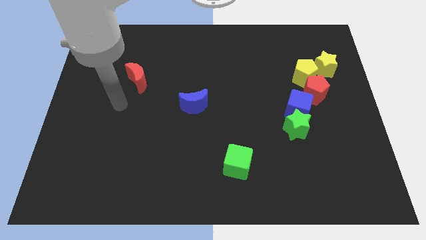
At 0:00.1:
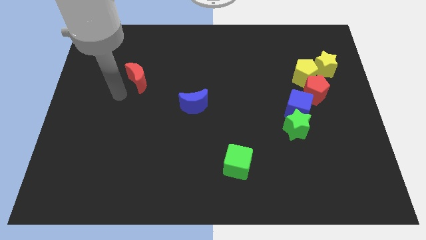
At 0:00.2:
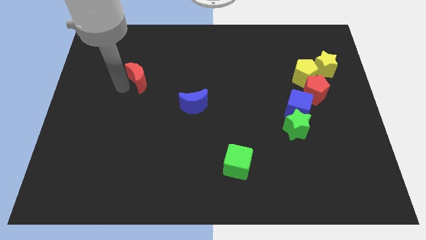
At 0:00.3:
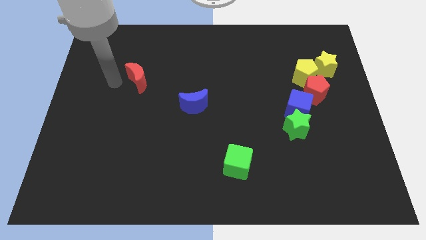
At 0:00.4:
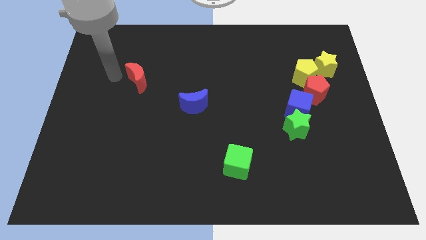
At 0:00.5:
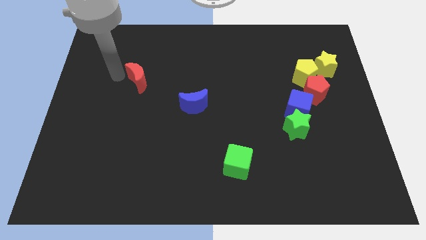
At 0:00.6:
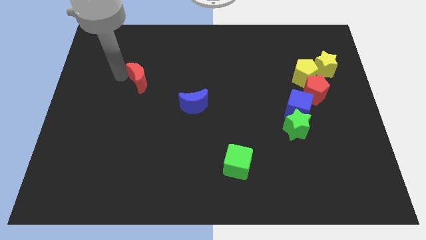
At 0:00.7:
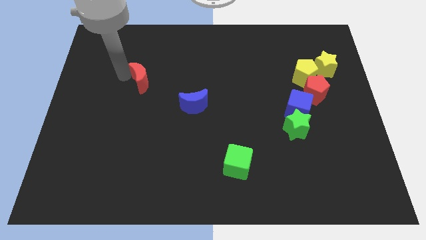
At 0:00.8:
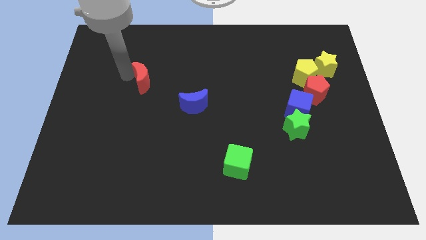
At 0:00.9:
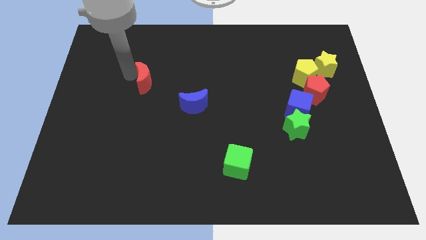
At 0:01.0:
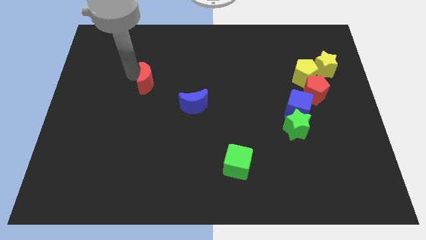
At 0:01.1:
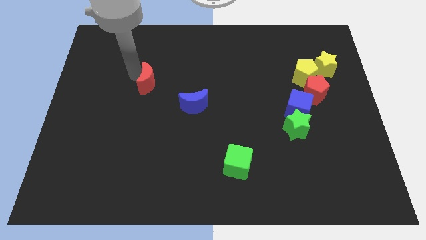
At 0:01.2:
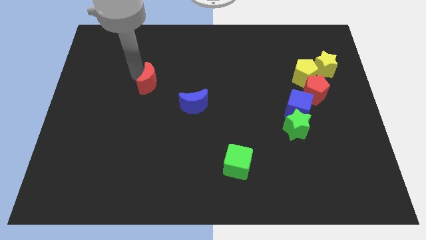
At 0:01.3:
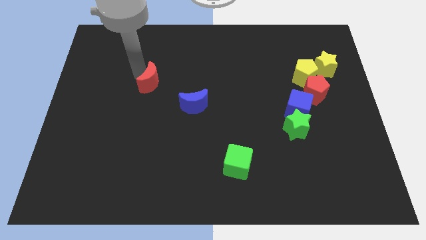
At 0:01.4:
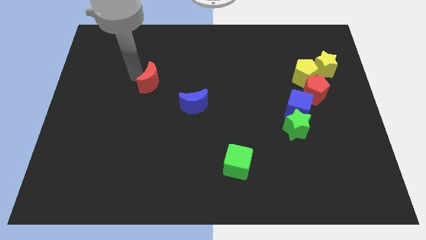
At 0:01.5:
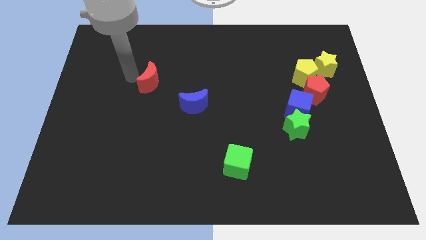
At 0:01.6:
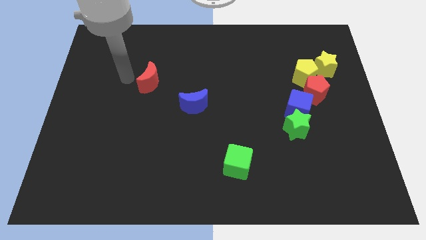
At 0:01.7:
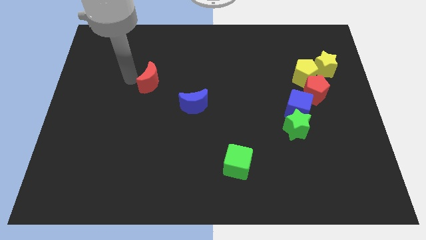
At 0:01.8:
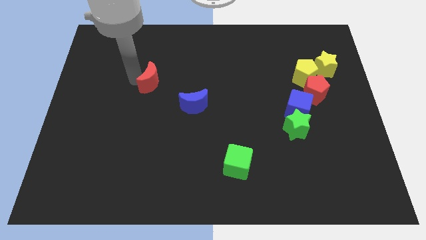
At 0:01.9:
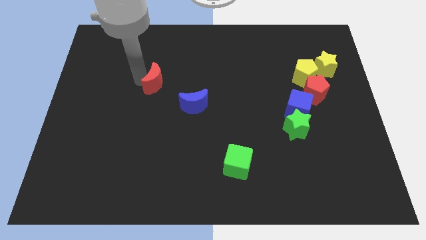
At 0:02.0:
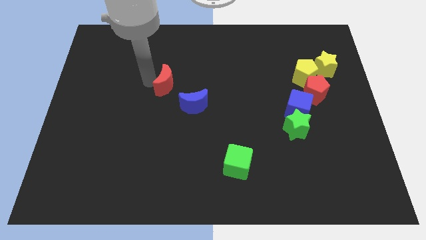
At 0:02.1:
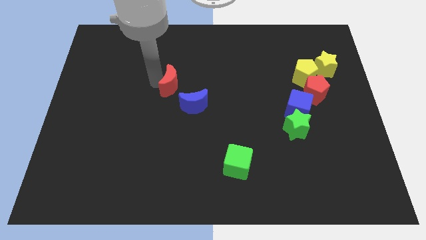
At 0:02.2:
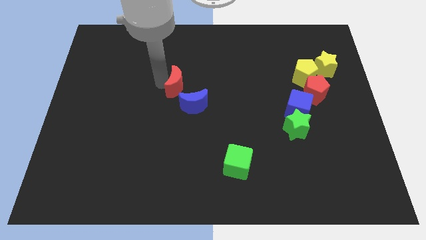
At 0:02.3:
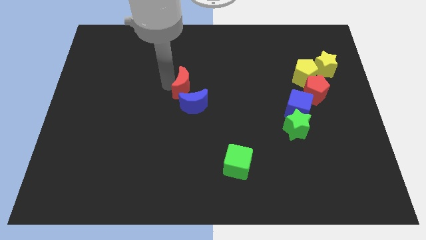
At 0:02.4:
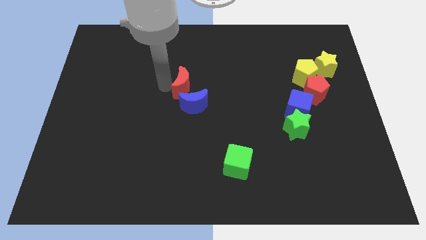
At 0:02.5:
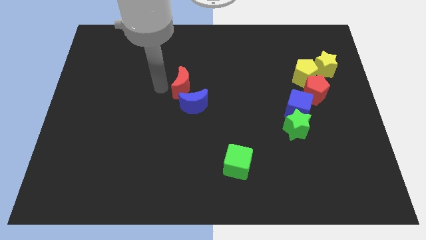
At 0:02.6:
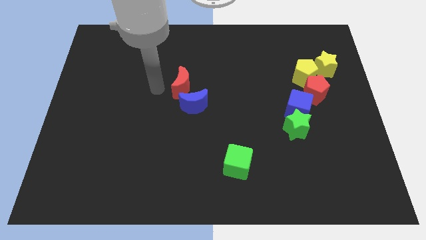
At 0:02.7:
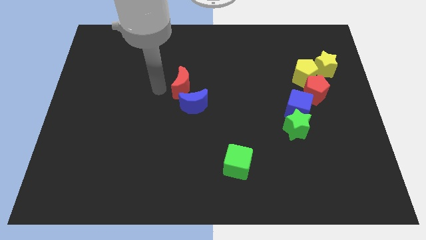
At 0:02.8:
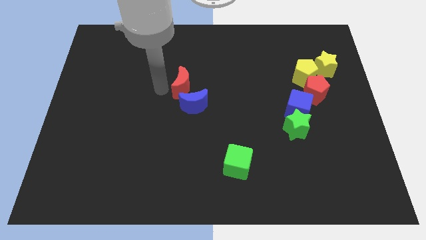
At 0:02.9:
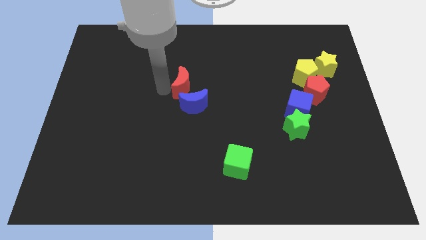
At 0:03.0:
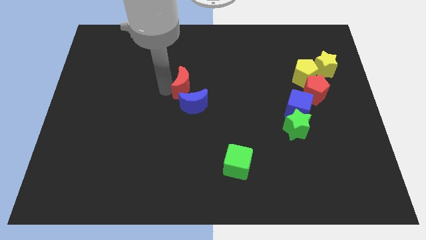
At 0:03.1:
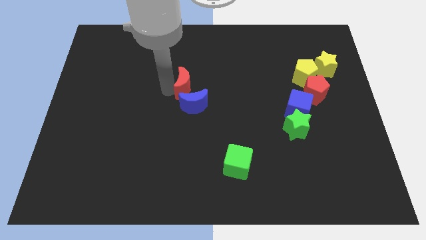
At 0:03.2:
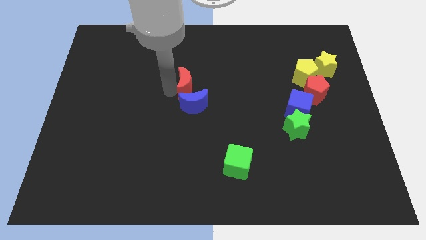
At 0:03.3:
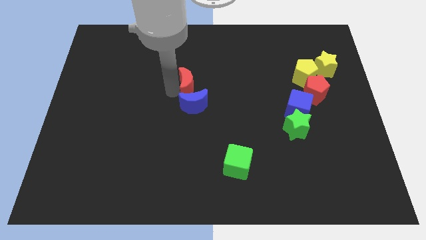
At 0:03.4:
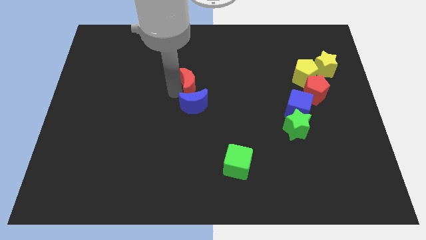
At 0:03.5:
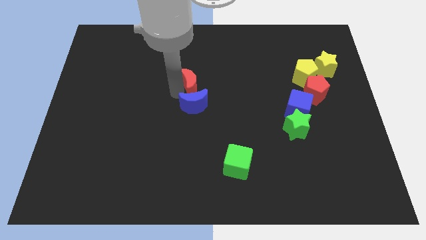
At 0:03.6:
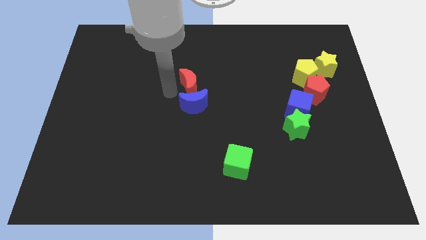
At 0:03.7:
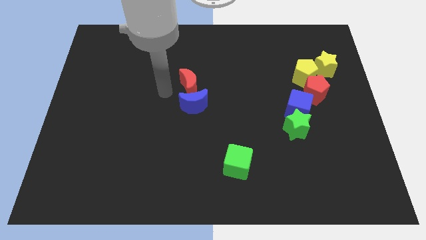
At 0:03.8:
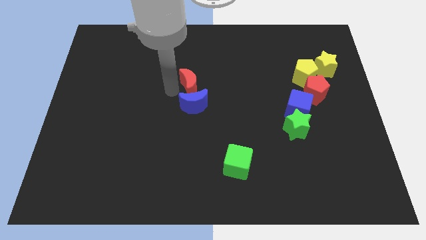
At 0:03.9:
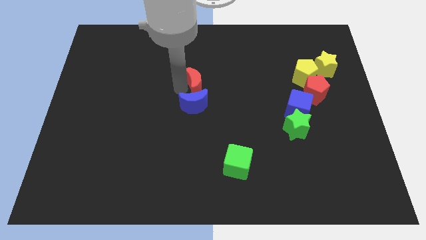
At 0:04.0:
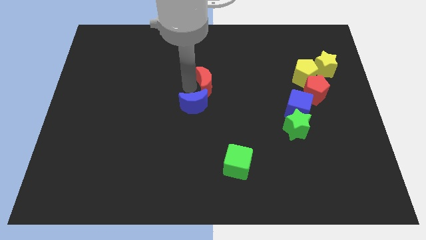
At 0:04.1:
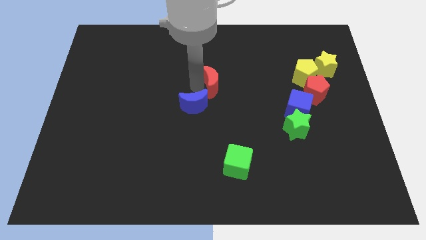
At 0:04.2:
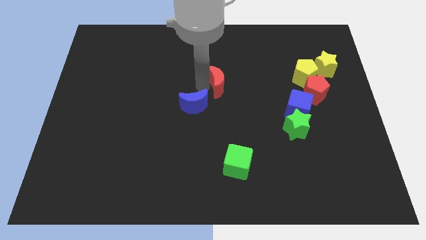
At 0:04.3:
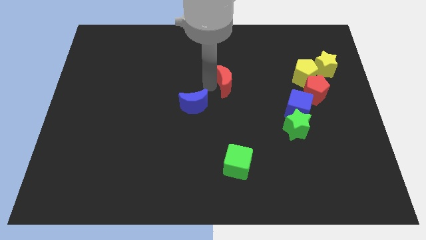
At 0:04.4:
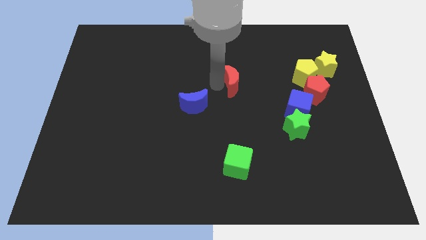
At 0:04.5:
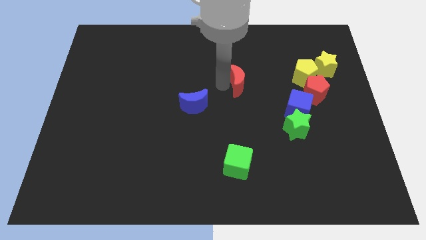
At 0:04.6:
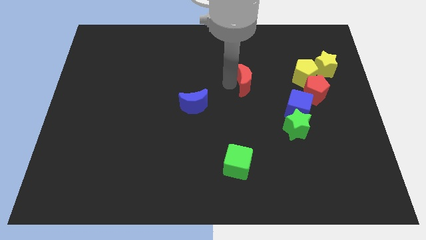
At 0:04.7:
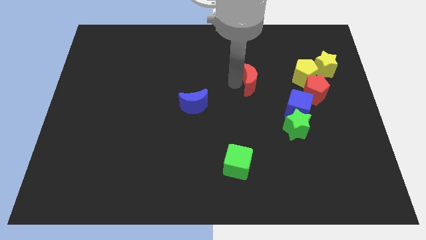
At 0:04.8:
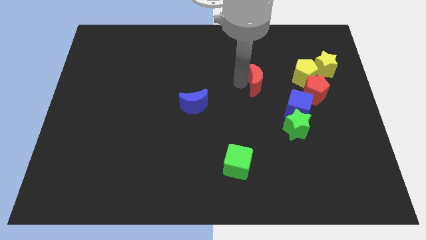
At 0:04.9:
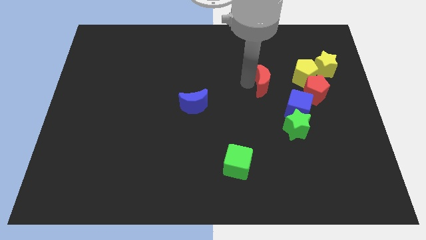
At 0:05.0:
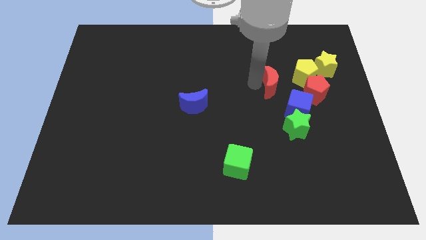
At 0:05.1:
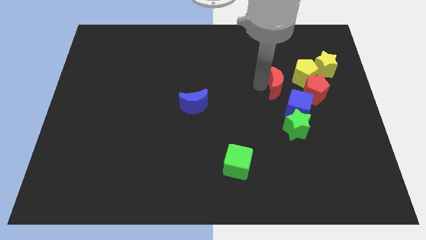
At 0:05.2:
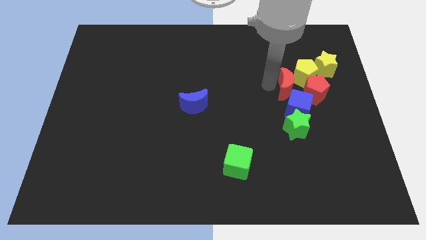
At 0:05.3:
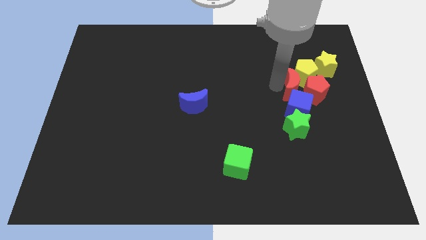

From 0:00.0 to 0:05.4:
slide the red moon towards the red pentagon

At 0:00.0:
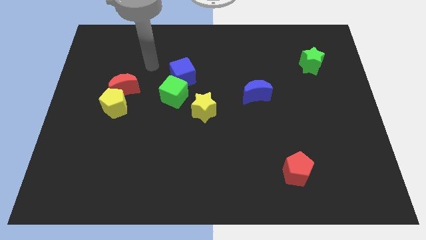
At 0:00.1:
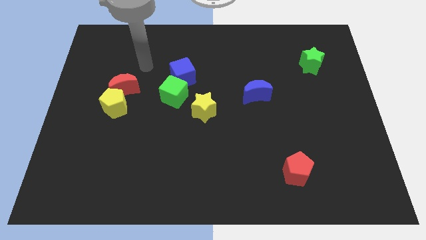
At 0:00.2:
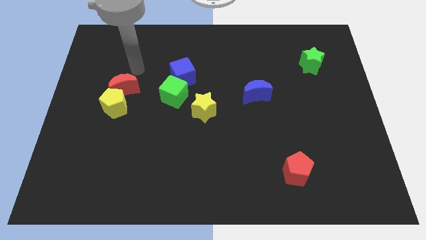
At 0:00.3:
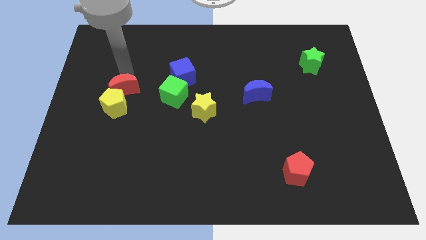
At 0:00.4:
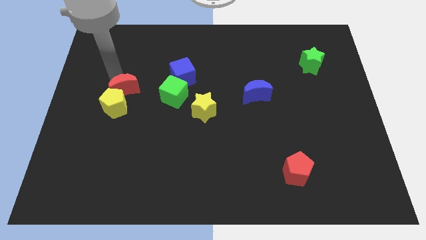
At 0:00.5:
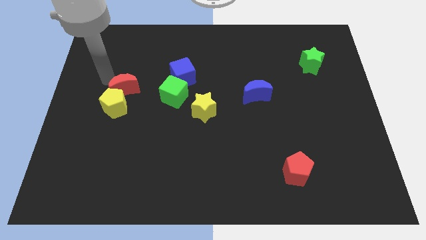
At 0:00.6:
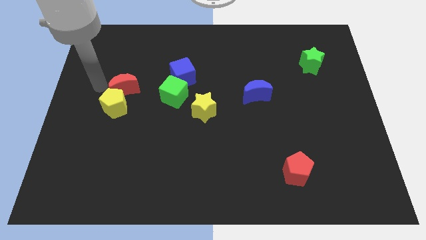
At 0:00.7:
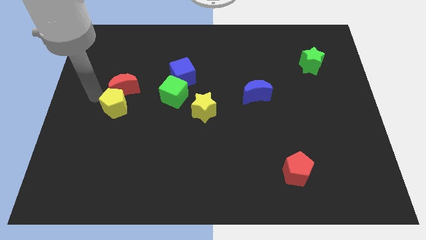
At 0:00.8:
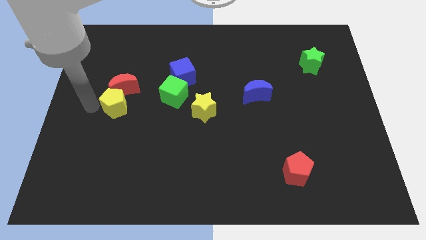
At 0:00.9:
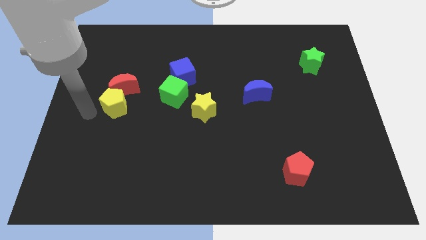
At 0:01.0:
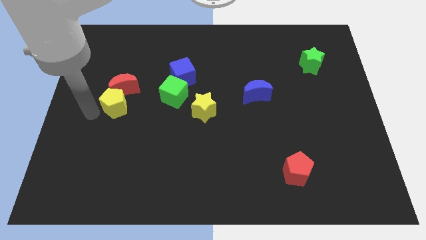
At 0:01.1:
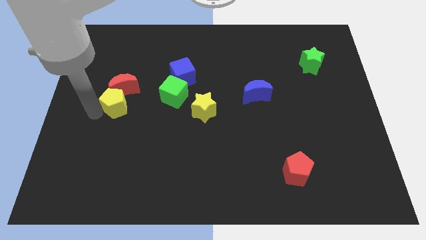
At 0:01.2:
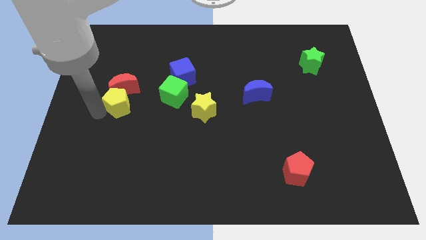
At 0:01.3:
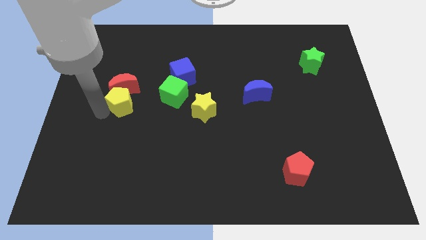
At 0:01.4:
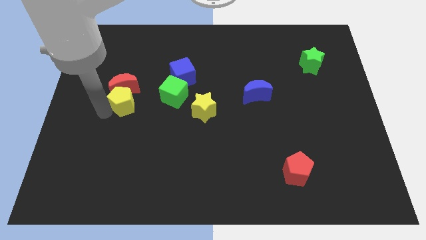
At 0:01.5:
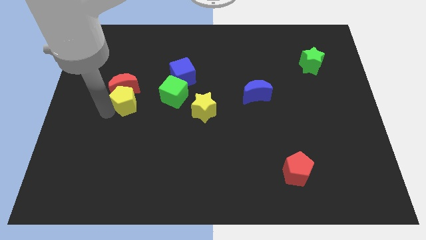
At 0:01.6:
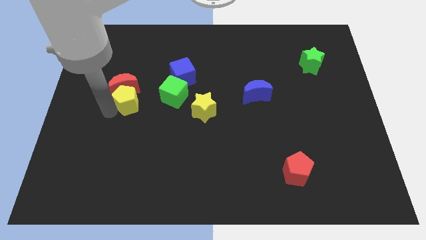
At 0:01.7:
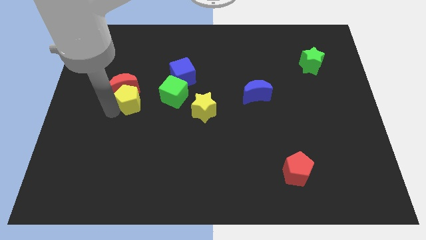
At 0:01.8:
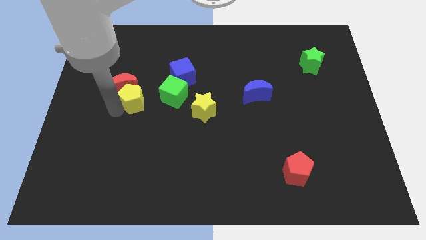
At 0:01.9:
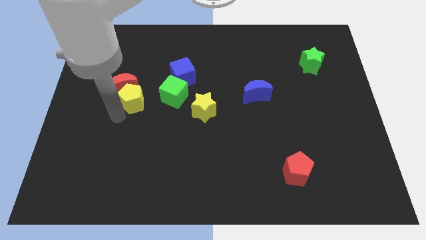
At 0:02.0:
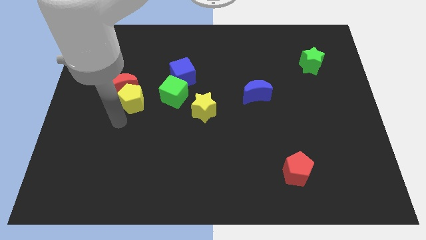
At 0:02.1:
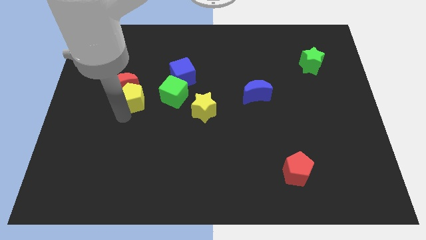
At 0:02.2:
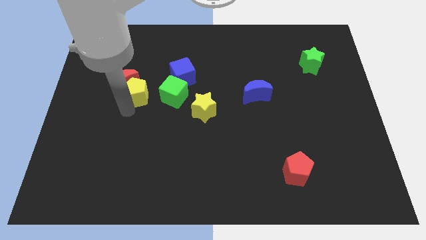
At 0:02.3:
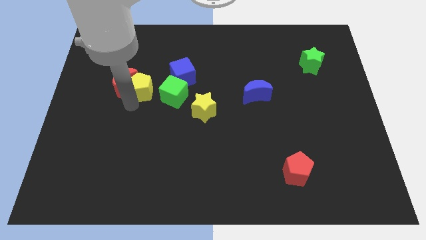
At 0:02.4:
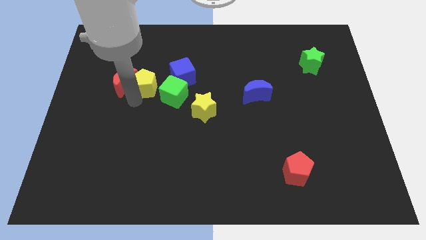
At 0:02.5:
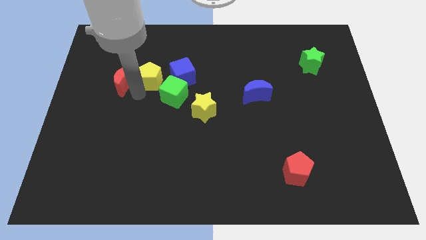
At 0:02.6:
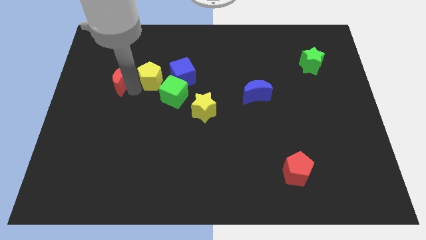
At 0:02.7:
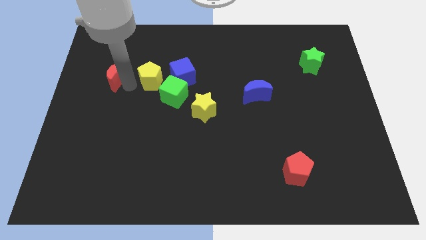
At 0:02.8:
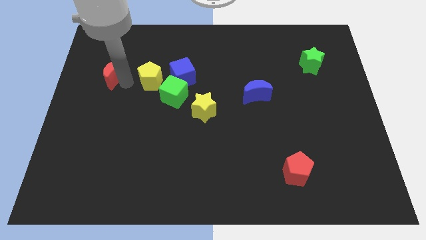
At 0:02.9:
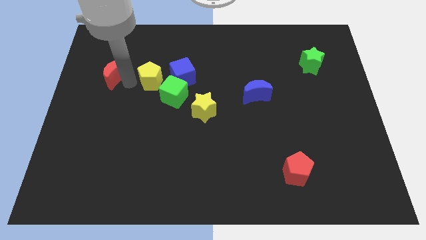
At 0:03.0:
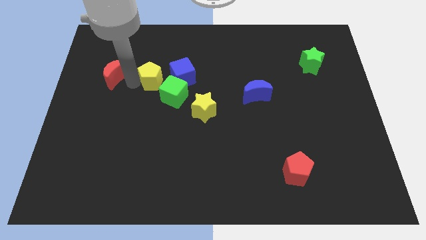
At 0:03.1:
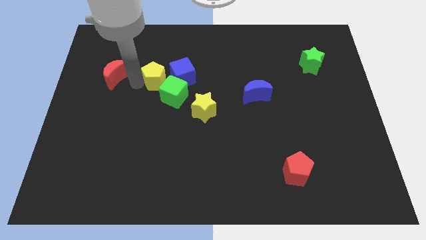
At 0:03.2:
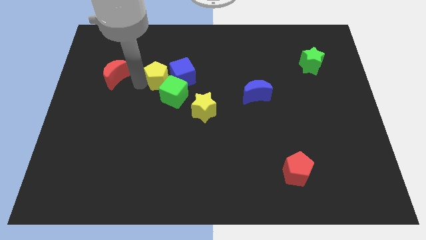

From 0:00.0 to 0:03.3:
push the yellow pentagon close to the blue cube
